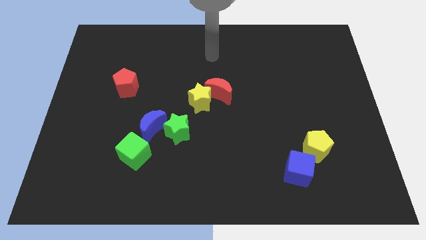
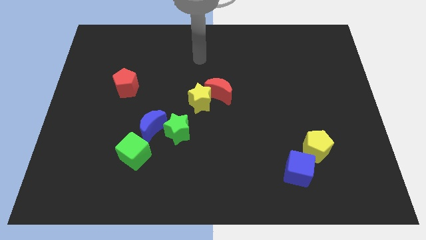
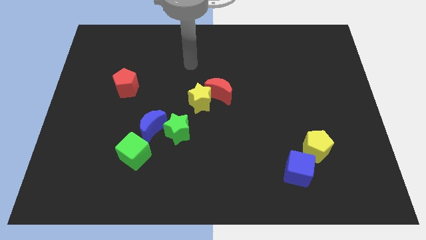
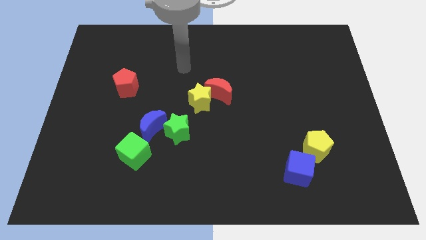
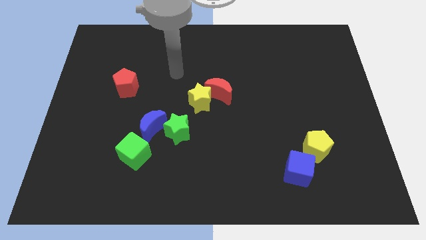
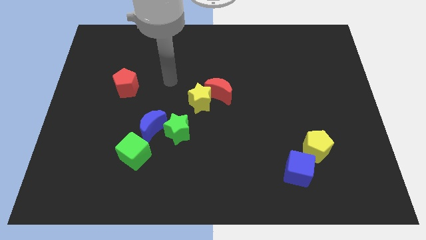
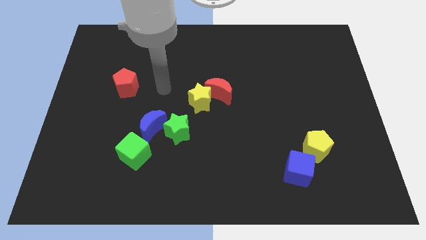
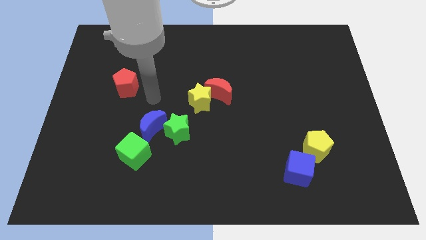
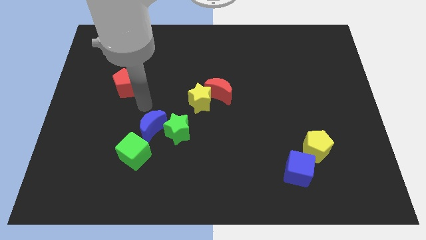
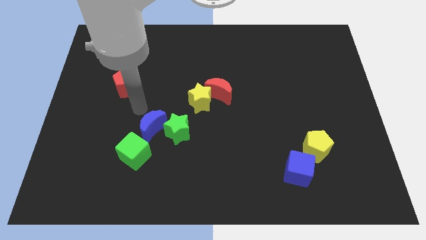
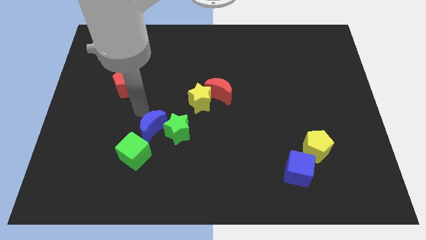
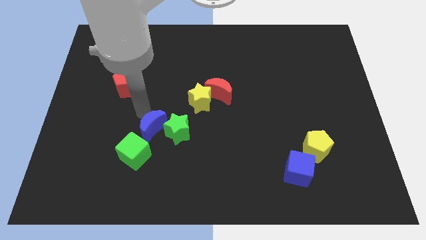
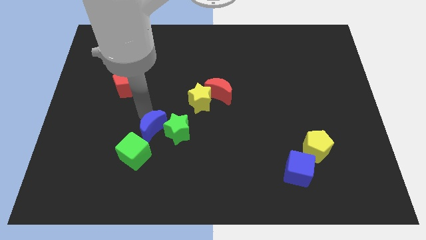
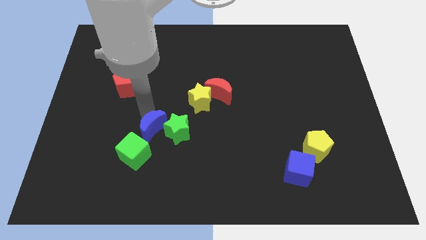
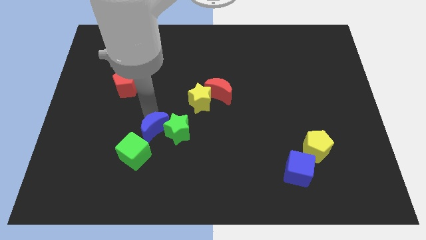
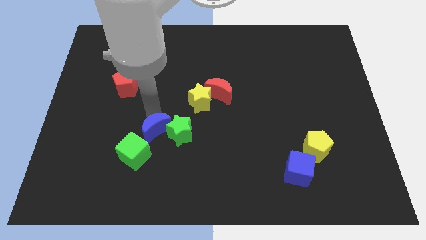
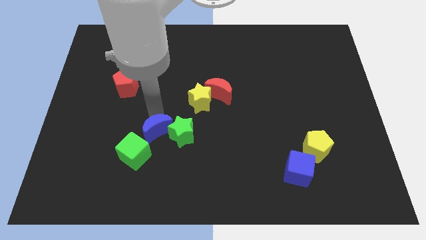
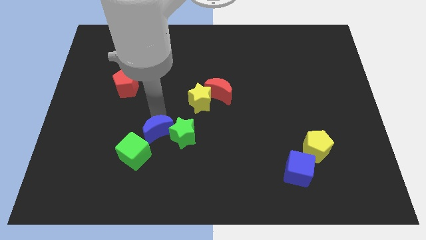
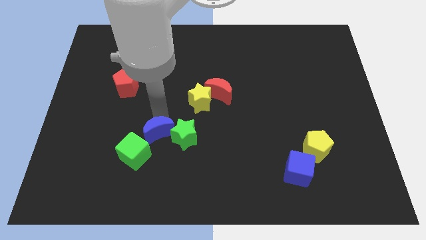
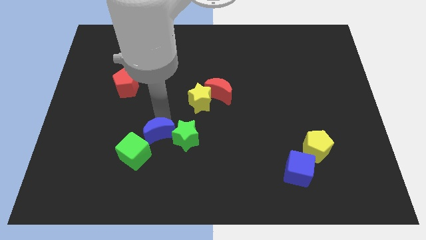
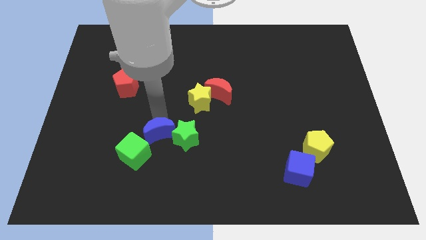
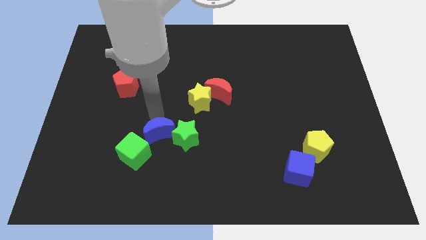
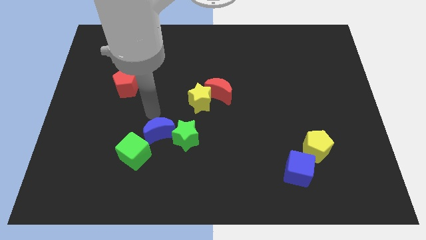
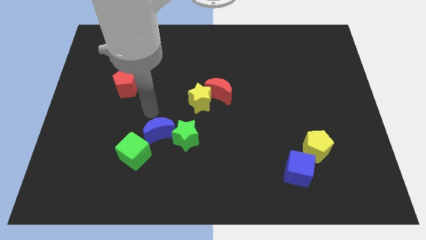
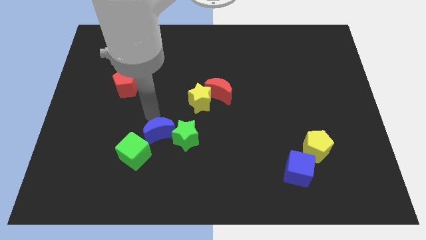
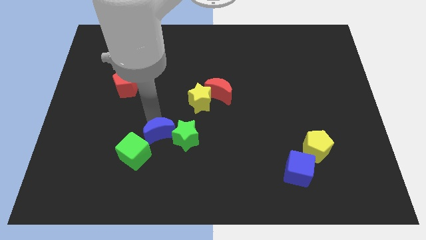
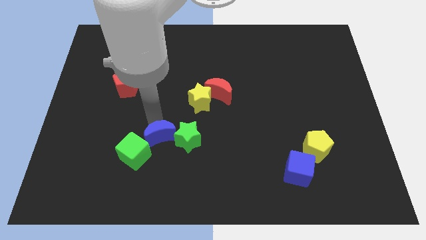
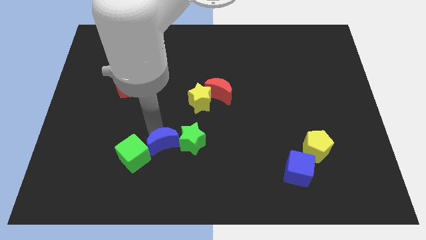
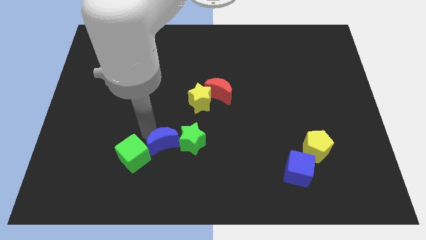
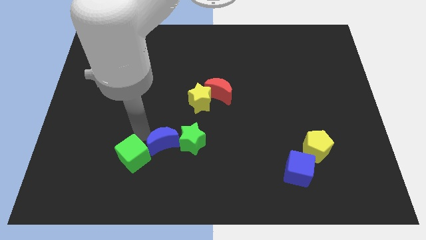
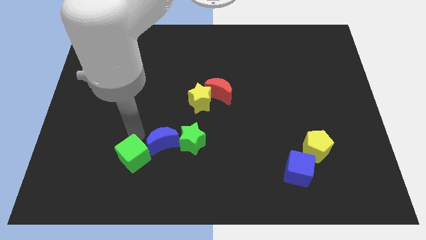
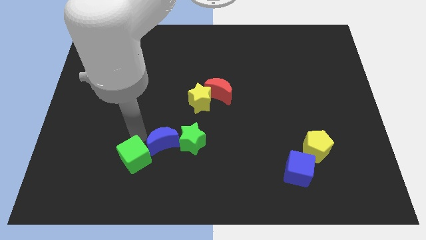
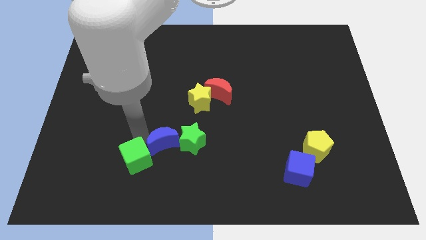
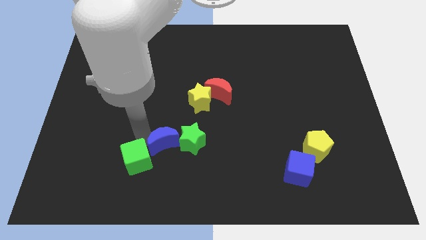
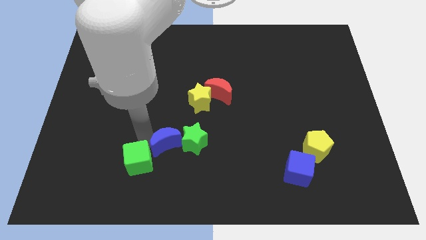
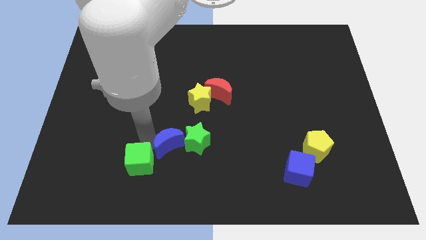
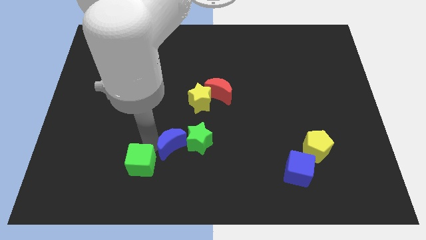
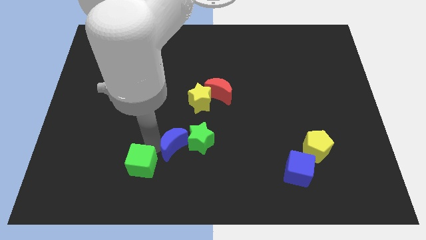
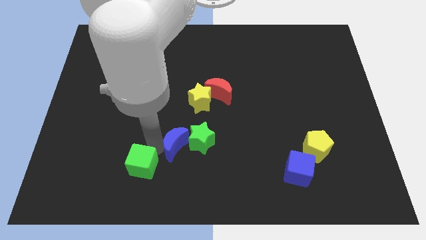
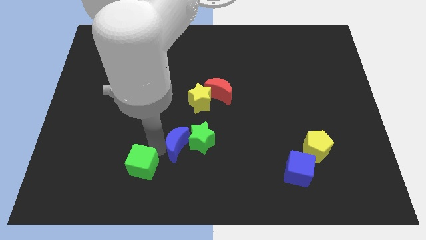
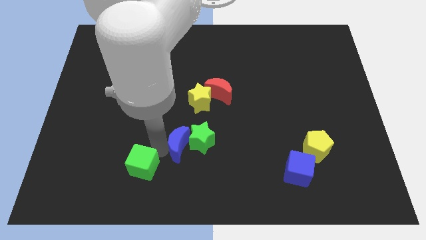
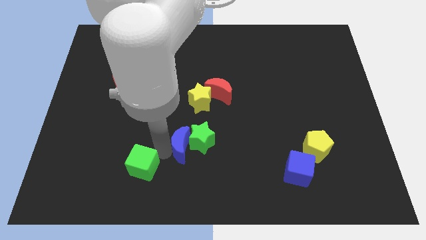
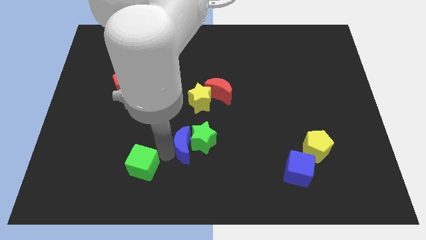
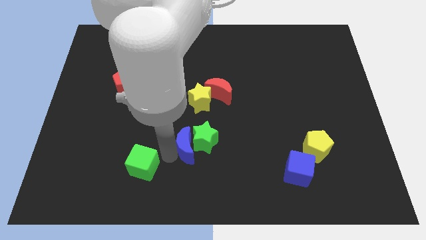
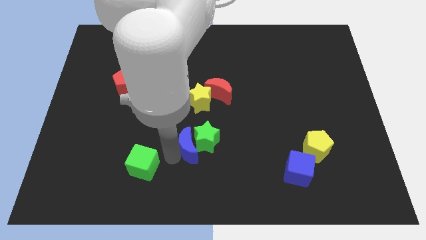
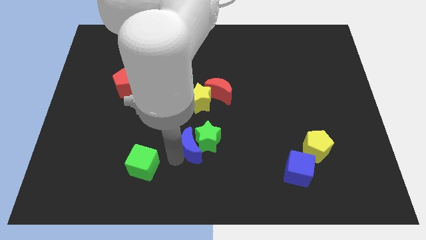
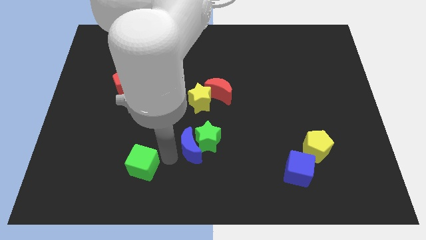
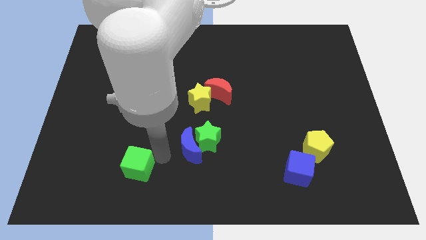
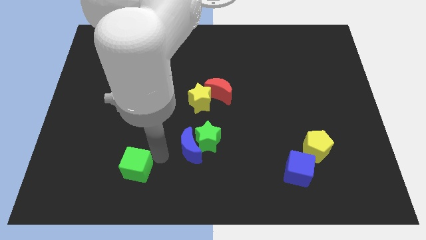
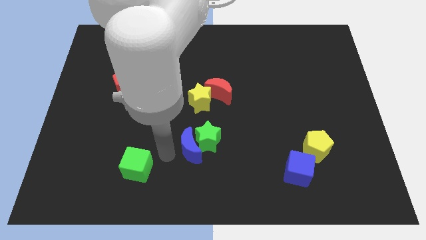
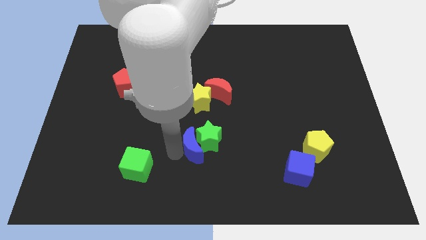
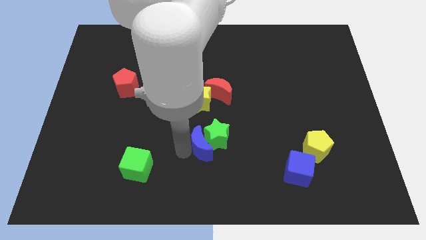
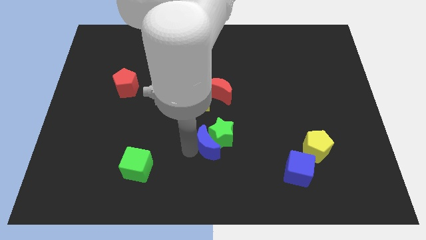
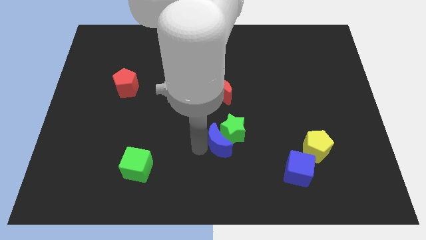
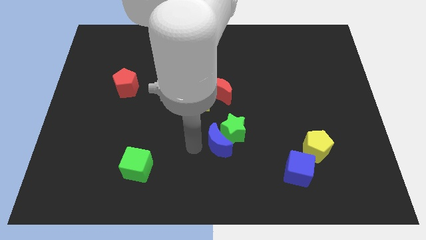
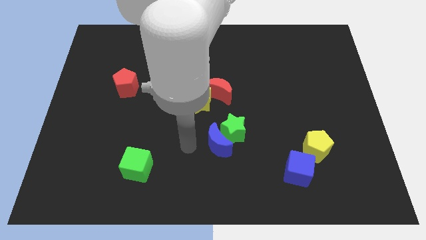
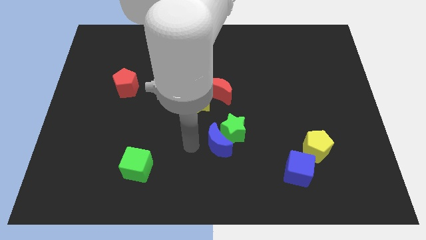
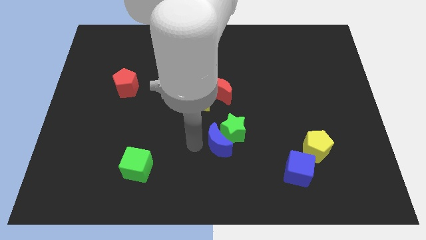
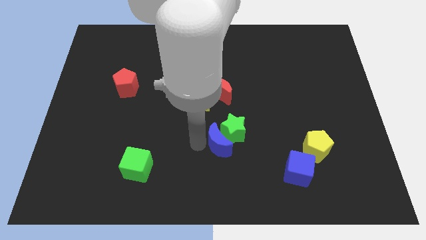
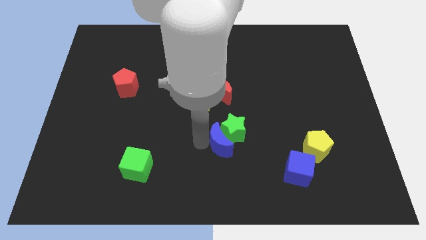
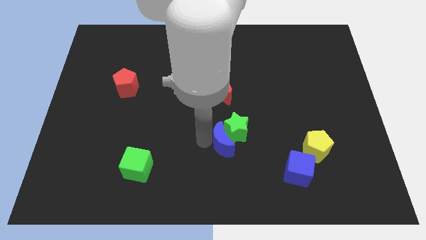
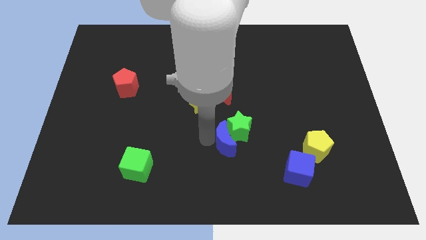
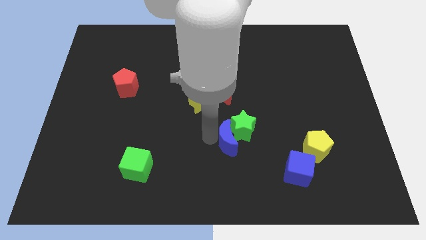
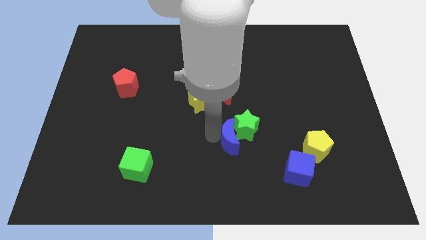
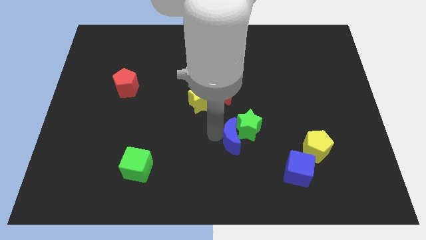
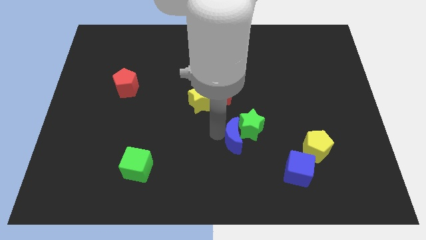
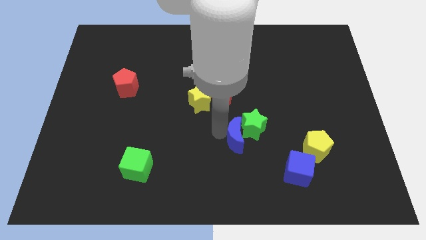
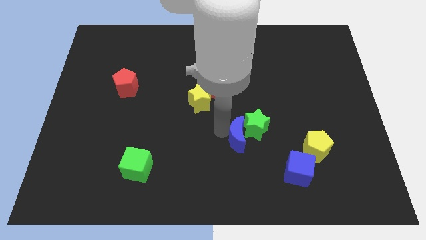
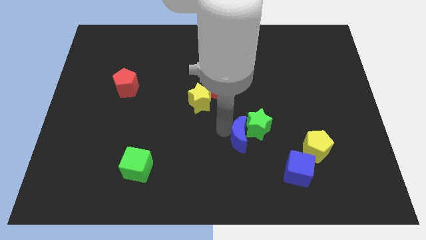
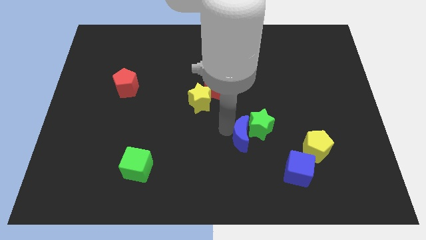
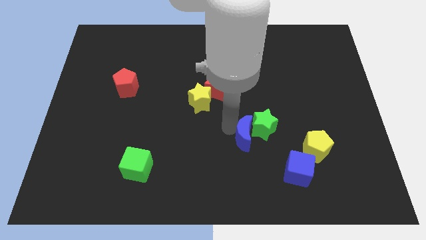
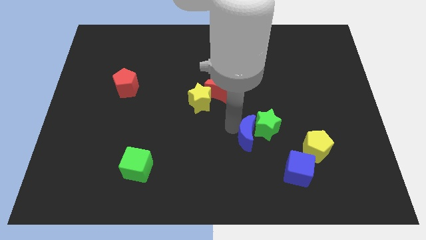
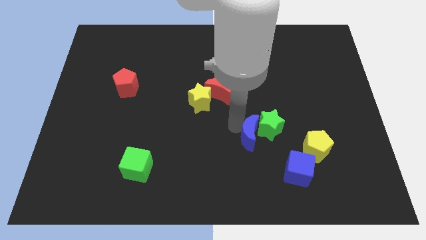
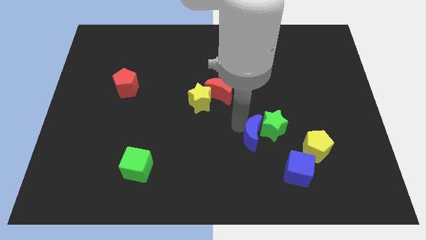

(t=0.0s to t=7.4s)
put the blue moon diagonally up and to the left of the blue cube
